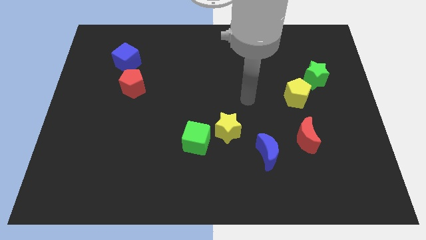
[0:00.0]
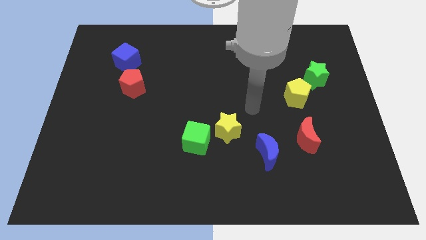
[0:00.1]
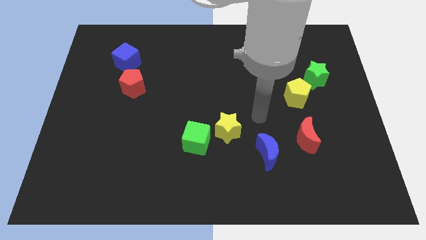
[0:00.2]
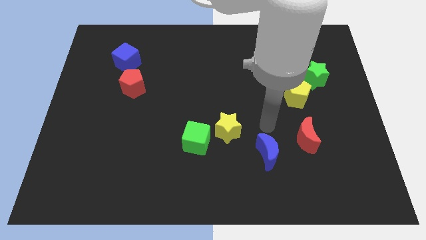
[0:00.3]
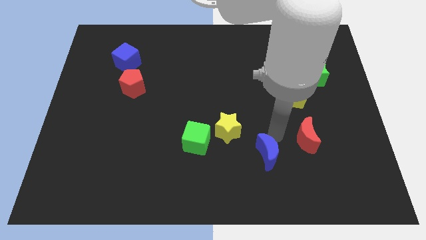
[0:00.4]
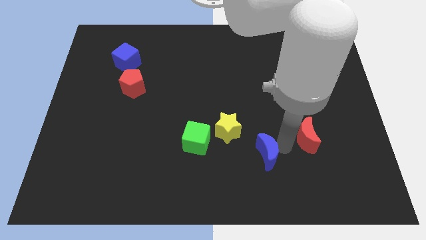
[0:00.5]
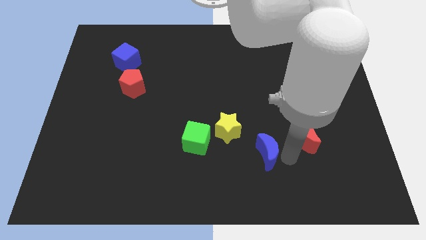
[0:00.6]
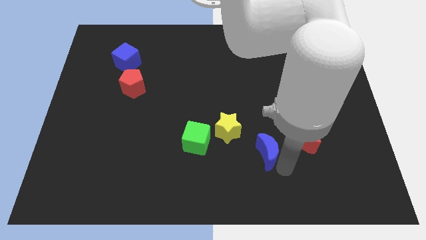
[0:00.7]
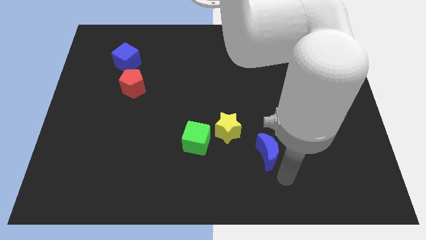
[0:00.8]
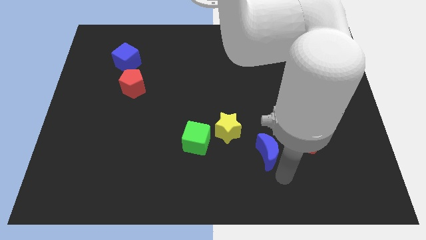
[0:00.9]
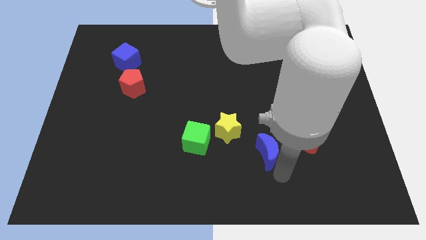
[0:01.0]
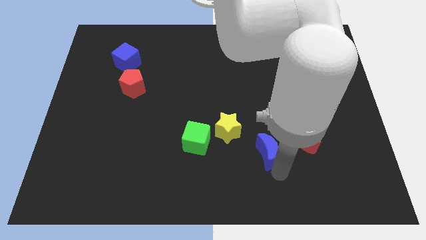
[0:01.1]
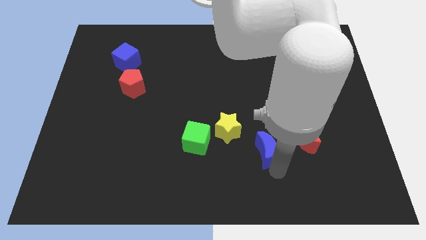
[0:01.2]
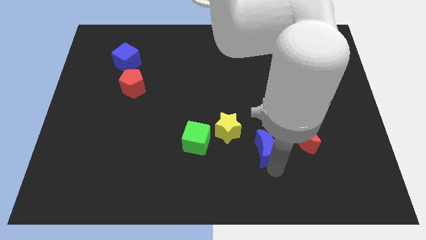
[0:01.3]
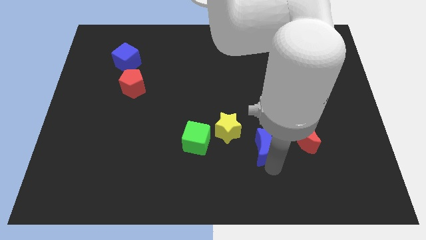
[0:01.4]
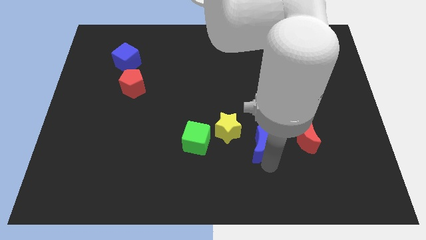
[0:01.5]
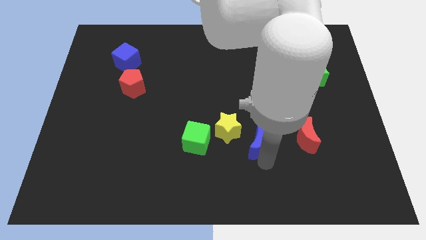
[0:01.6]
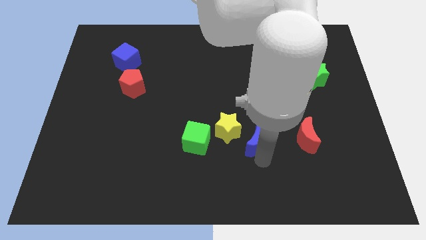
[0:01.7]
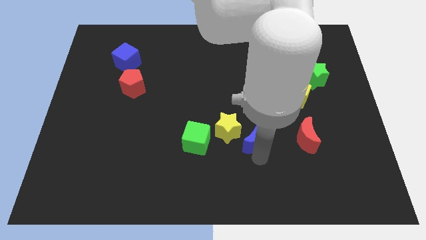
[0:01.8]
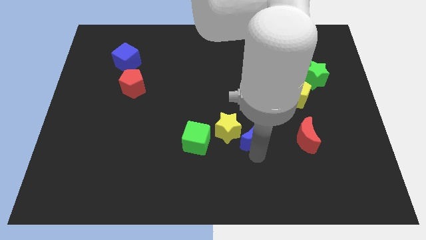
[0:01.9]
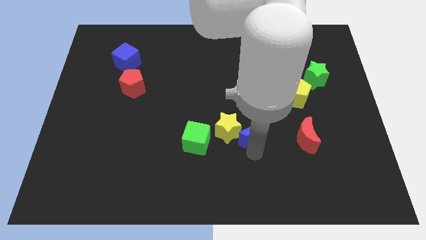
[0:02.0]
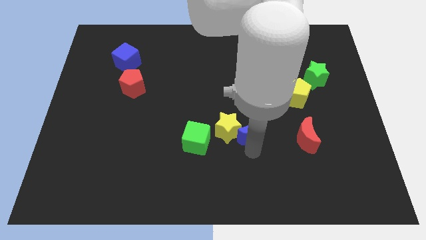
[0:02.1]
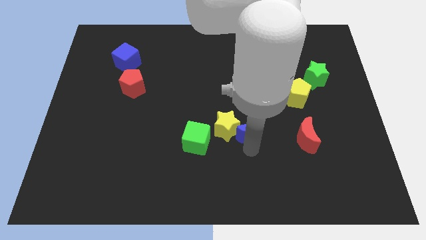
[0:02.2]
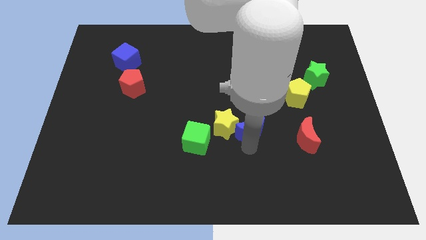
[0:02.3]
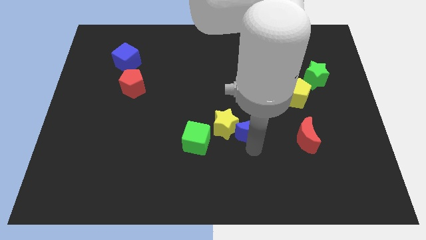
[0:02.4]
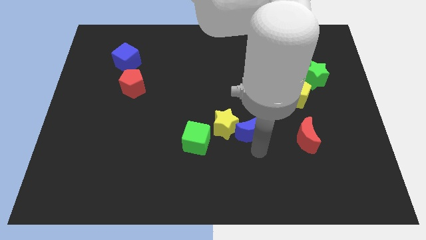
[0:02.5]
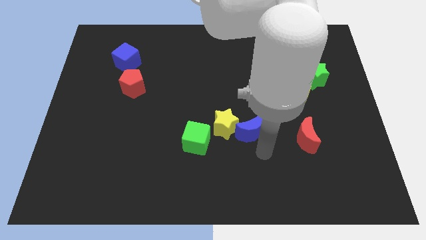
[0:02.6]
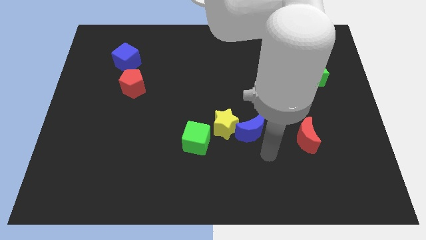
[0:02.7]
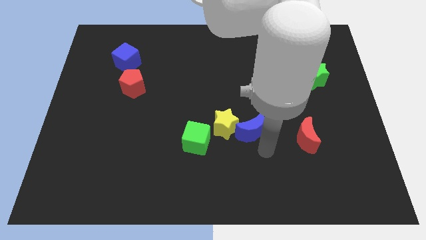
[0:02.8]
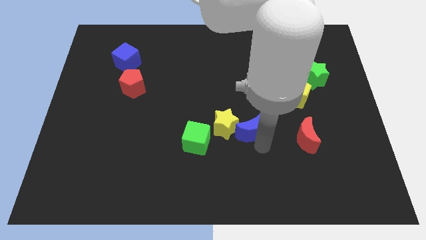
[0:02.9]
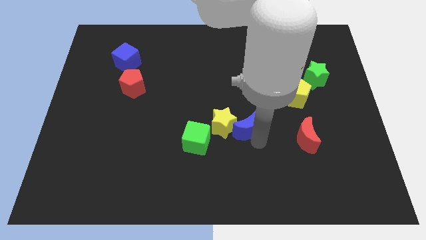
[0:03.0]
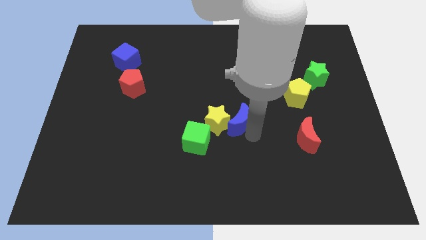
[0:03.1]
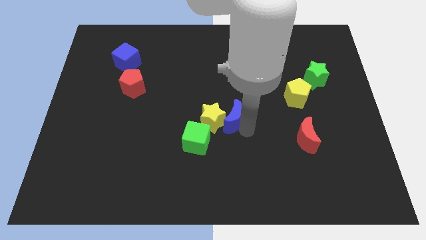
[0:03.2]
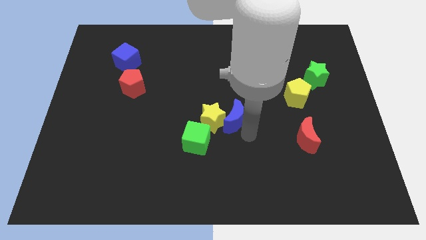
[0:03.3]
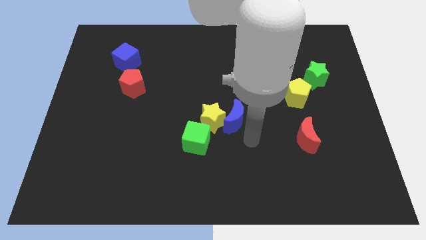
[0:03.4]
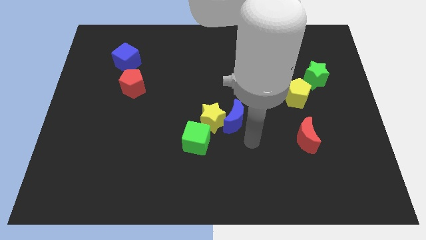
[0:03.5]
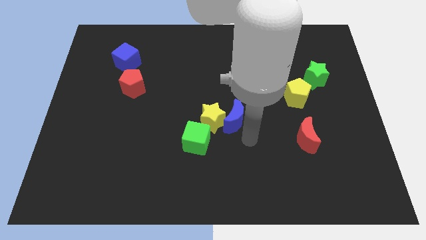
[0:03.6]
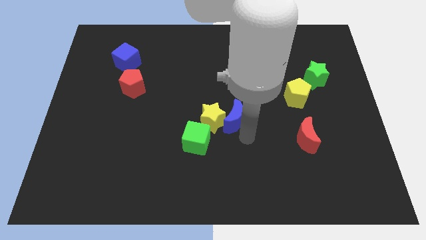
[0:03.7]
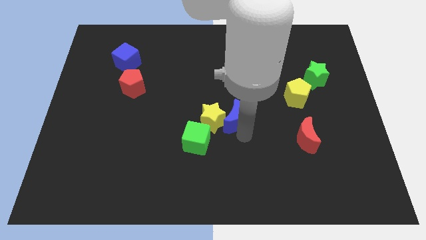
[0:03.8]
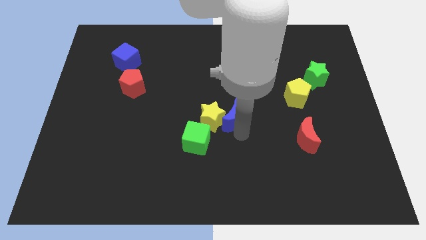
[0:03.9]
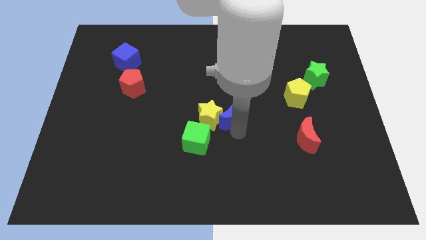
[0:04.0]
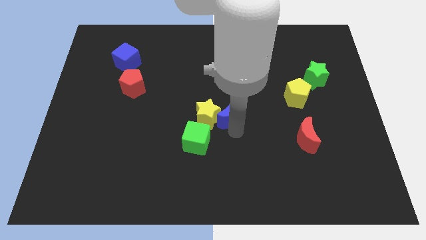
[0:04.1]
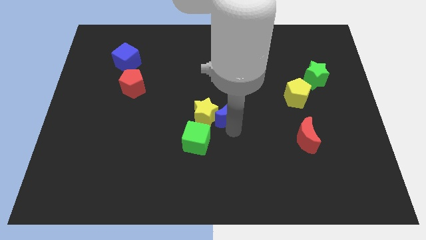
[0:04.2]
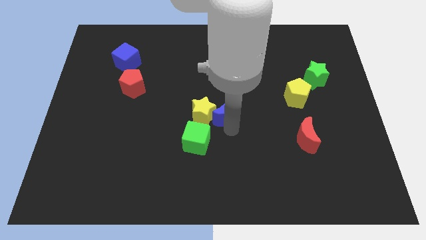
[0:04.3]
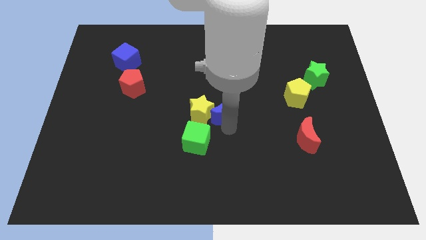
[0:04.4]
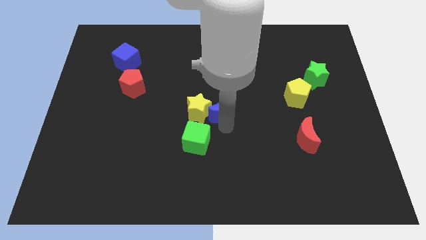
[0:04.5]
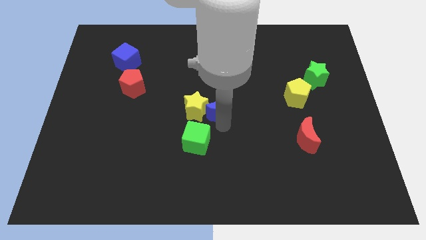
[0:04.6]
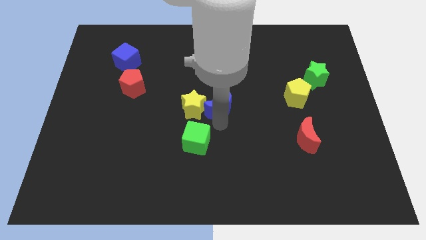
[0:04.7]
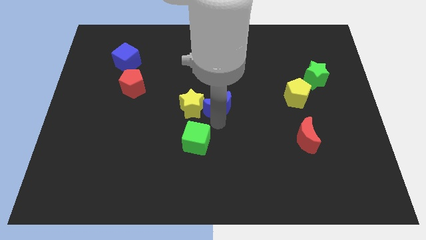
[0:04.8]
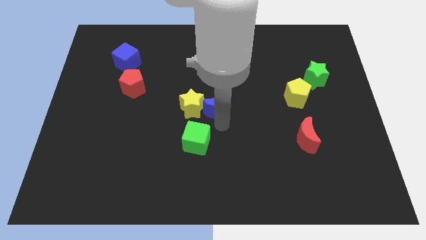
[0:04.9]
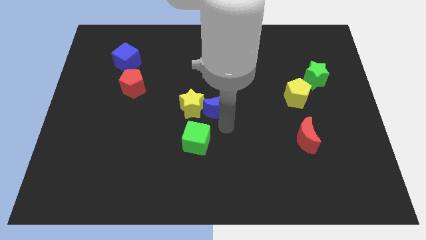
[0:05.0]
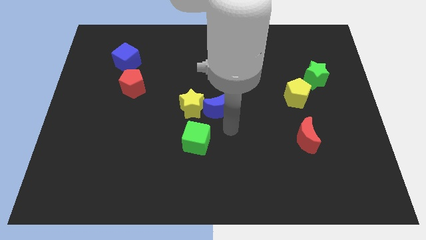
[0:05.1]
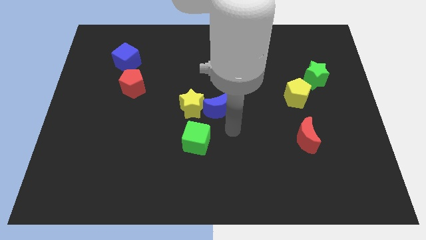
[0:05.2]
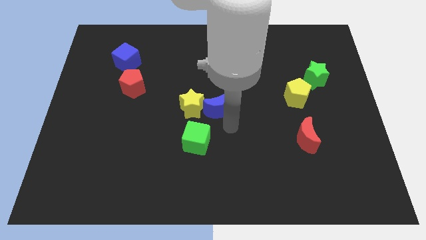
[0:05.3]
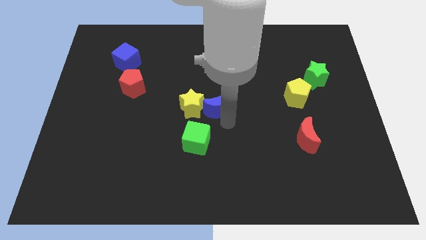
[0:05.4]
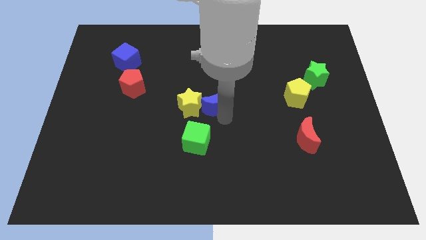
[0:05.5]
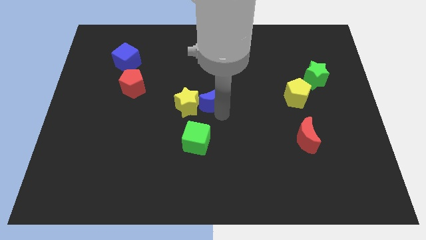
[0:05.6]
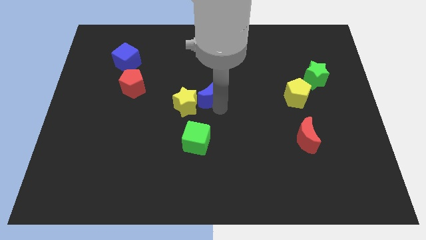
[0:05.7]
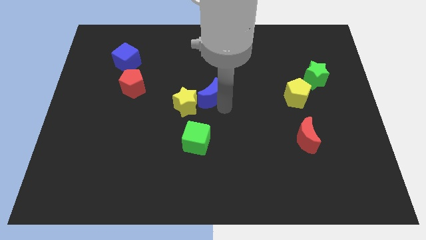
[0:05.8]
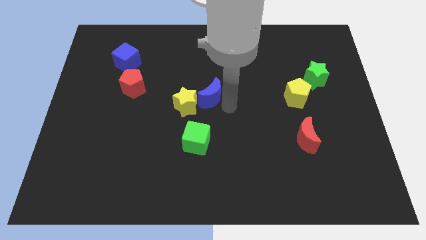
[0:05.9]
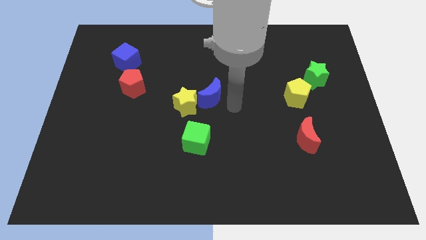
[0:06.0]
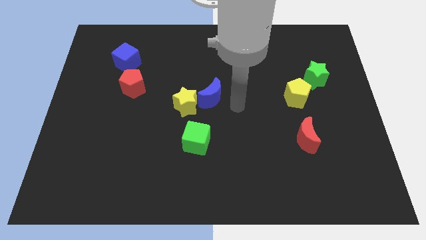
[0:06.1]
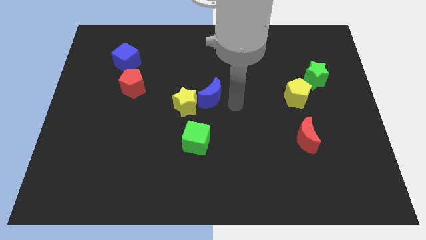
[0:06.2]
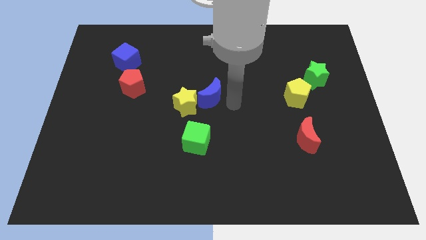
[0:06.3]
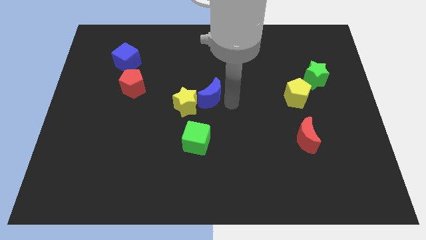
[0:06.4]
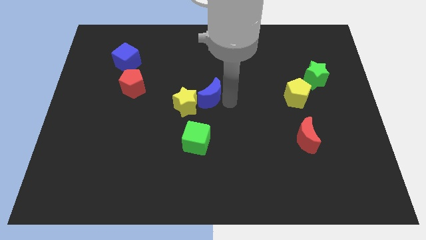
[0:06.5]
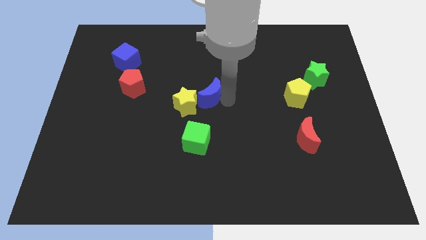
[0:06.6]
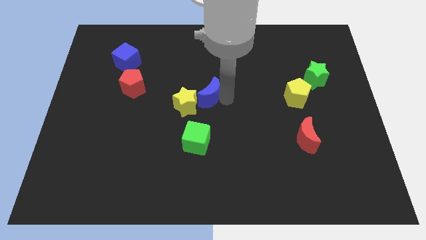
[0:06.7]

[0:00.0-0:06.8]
move the blue moon upwards and left diagonally

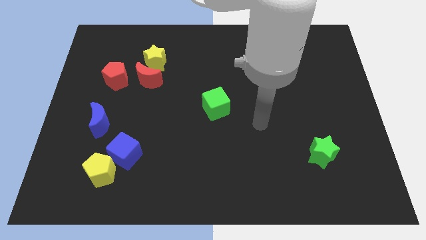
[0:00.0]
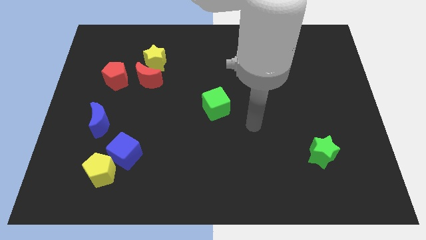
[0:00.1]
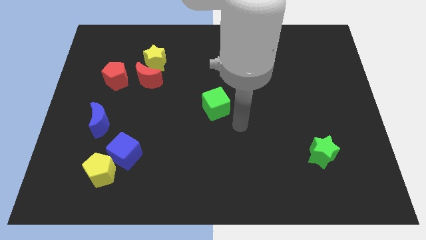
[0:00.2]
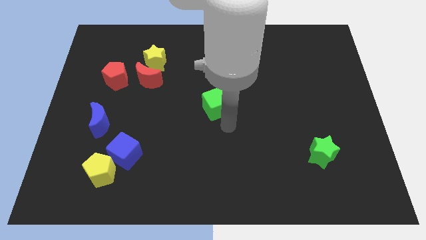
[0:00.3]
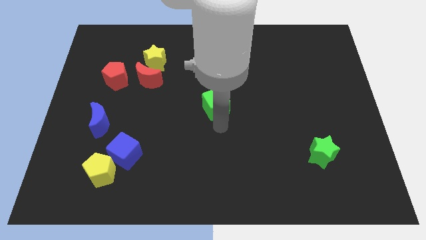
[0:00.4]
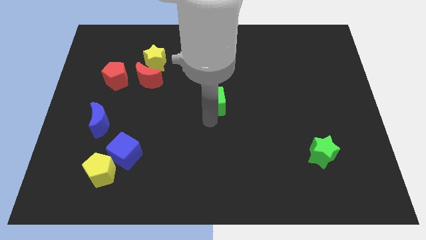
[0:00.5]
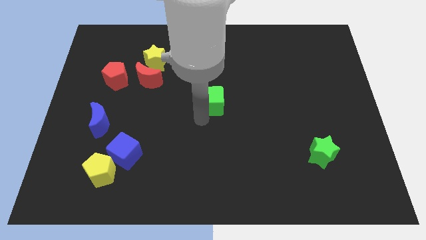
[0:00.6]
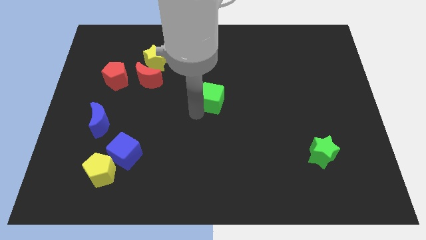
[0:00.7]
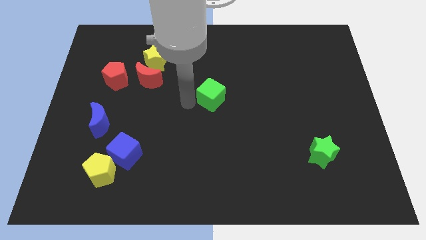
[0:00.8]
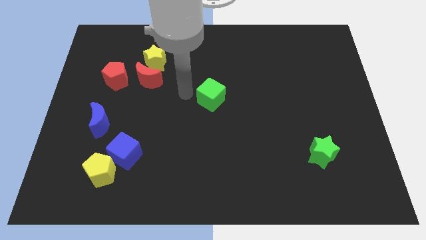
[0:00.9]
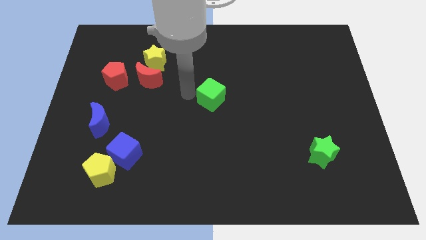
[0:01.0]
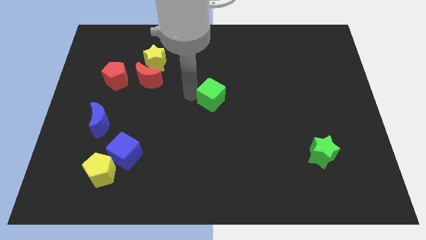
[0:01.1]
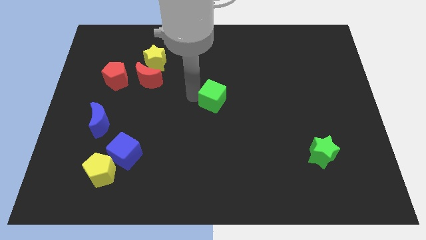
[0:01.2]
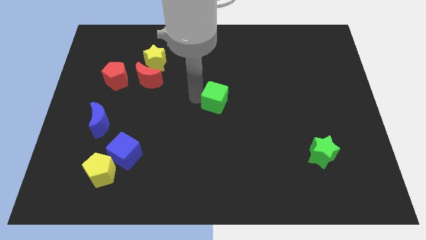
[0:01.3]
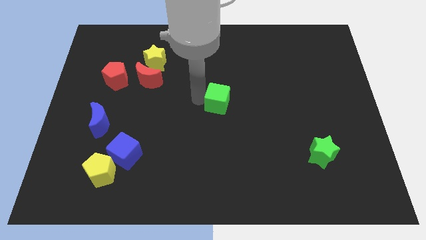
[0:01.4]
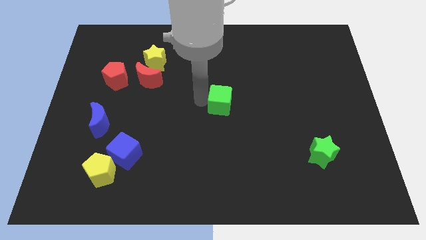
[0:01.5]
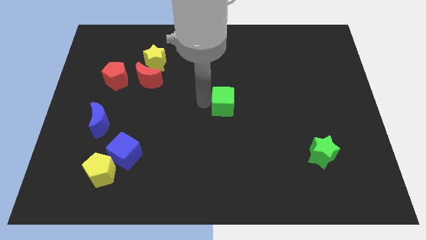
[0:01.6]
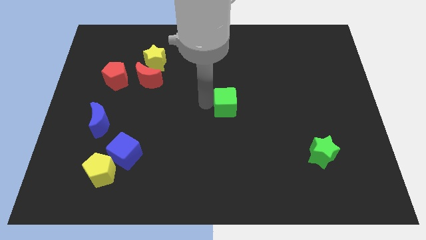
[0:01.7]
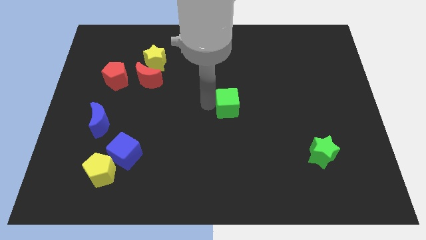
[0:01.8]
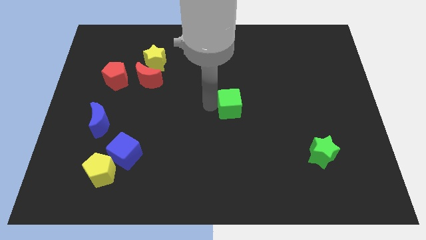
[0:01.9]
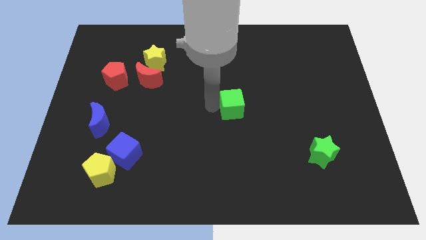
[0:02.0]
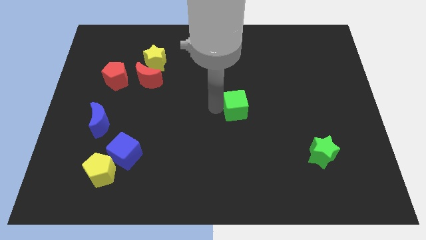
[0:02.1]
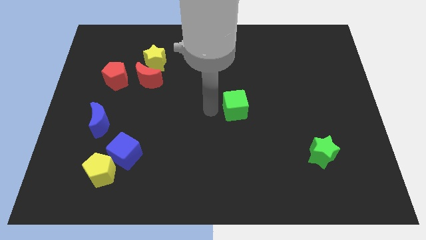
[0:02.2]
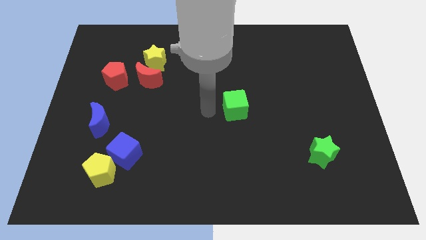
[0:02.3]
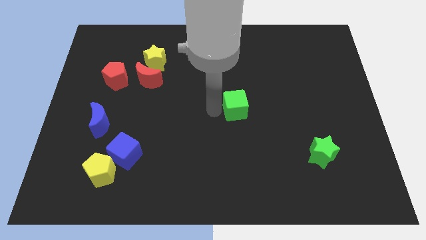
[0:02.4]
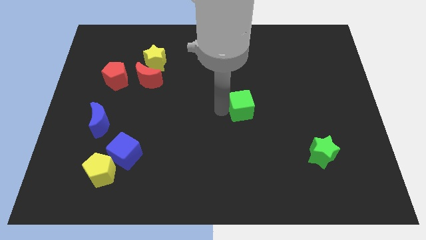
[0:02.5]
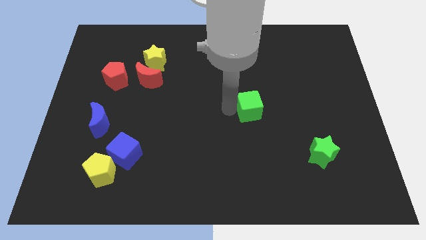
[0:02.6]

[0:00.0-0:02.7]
push the green cube somewhat to the right
